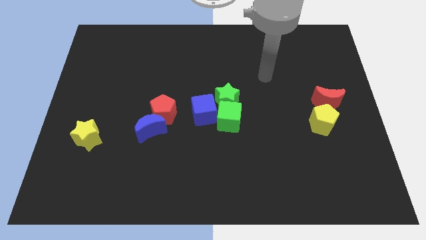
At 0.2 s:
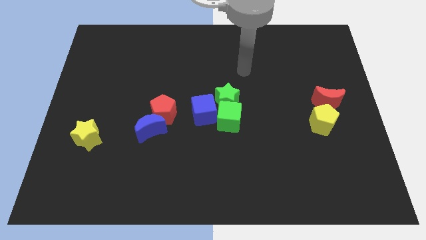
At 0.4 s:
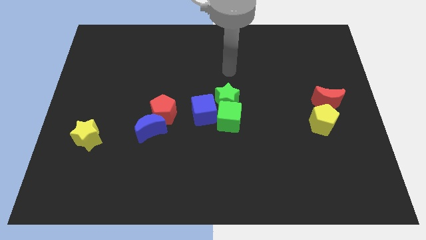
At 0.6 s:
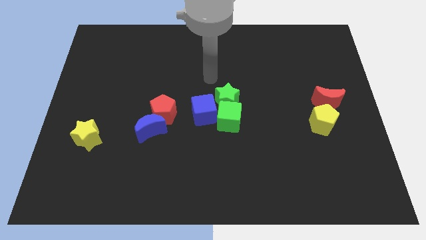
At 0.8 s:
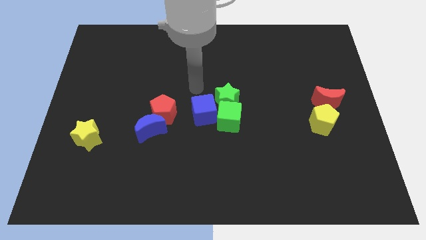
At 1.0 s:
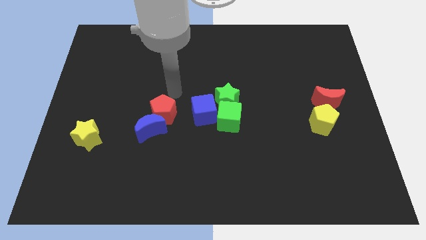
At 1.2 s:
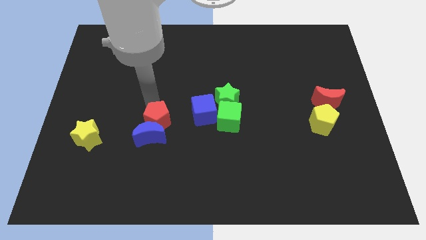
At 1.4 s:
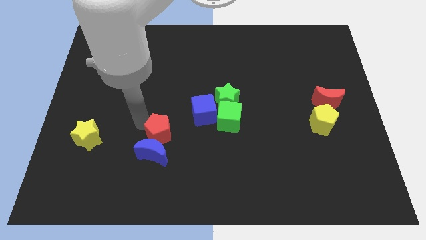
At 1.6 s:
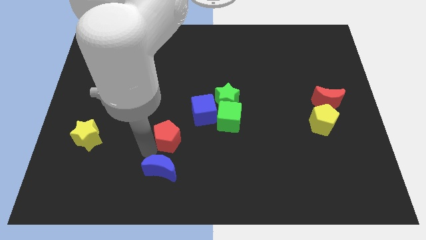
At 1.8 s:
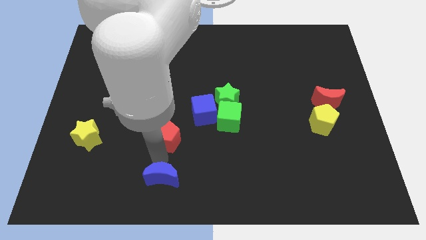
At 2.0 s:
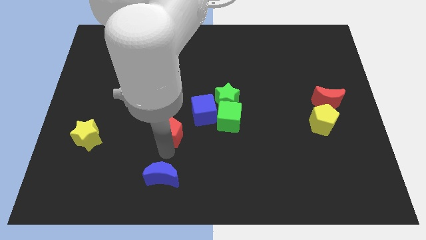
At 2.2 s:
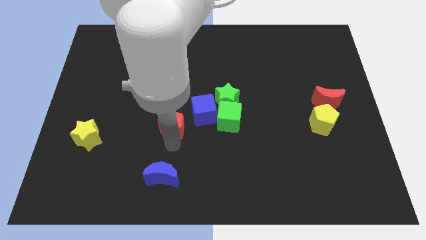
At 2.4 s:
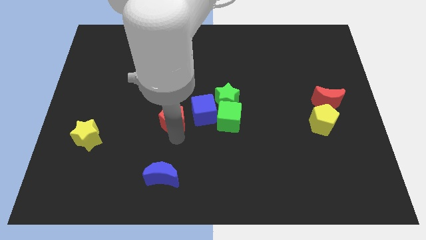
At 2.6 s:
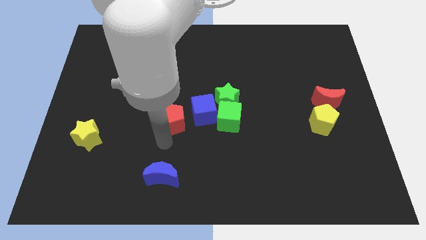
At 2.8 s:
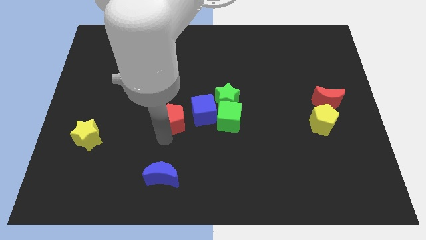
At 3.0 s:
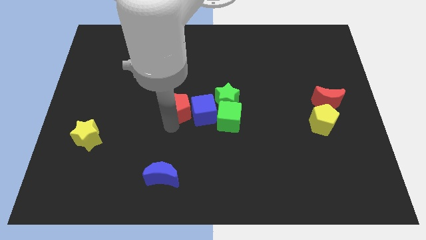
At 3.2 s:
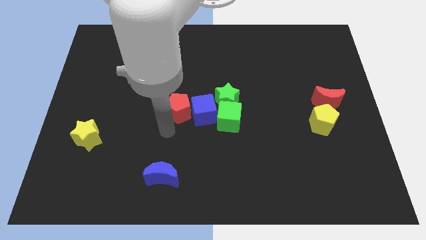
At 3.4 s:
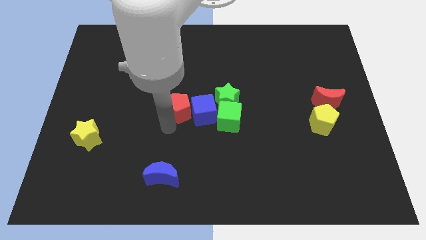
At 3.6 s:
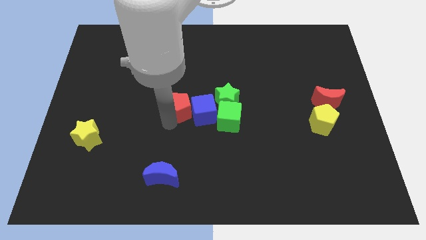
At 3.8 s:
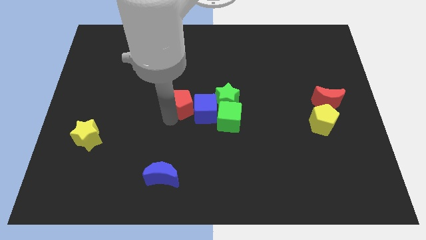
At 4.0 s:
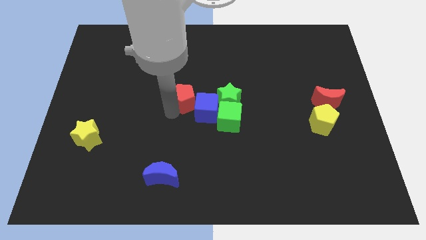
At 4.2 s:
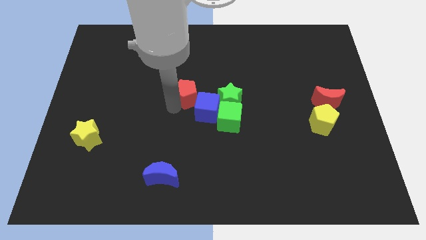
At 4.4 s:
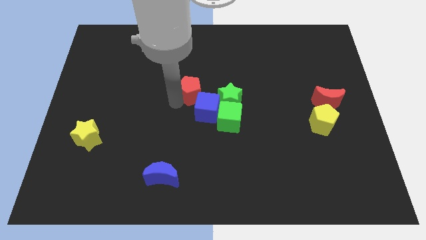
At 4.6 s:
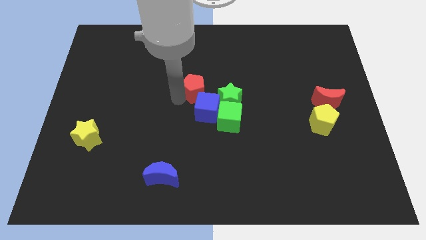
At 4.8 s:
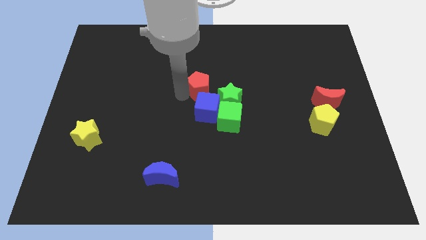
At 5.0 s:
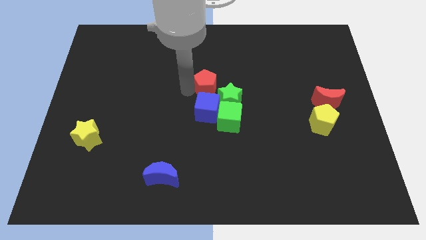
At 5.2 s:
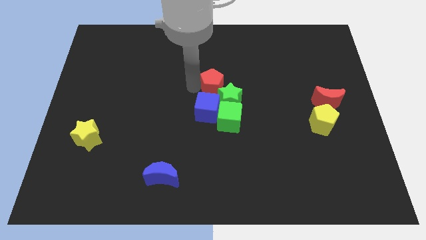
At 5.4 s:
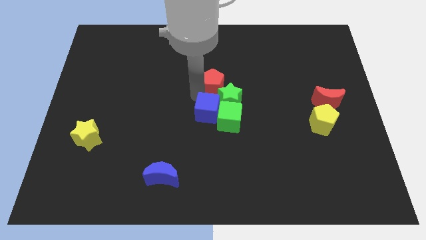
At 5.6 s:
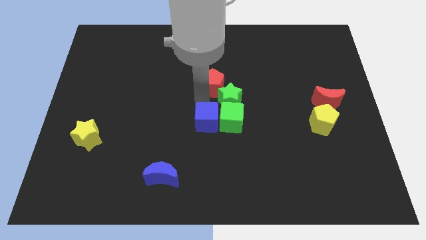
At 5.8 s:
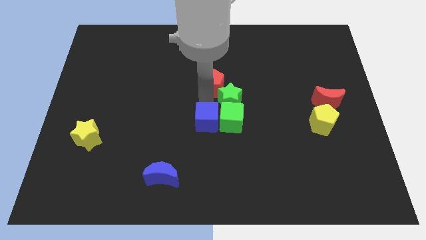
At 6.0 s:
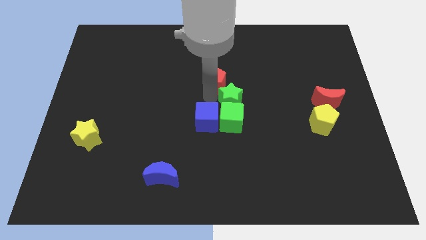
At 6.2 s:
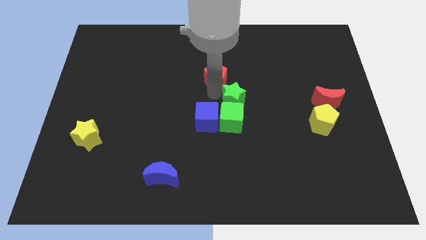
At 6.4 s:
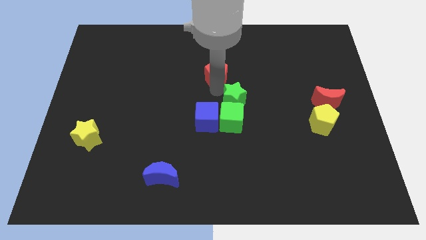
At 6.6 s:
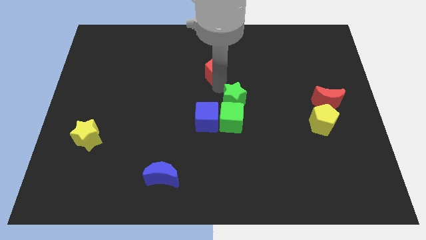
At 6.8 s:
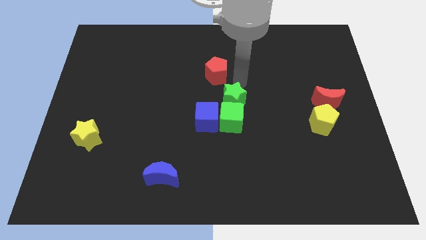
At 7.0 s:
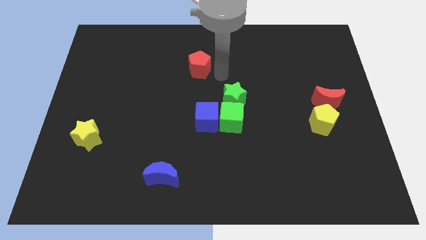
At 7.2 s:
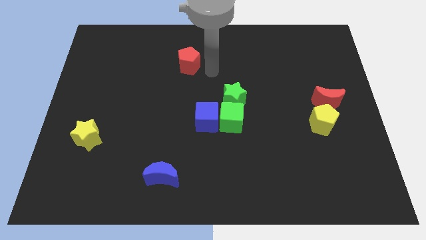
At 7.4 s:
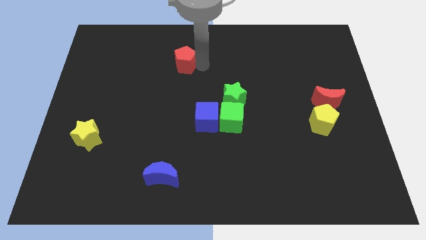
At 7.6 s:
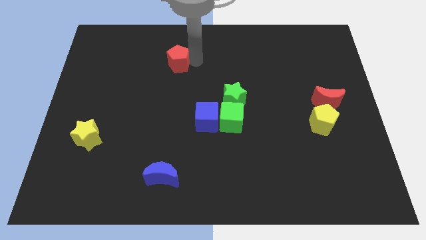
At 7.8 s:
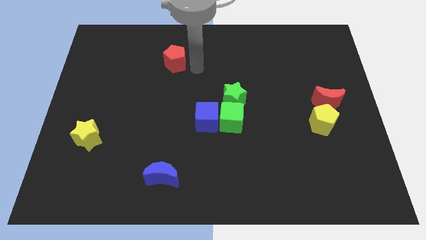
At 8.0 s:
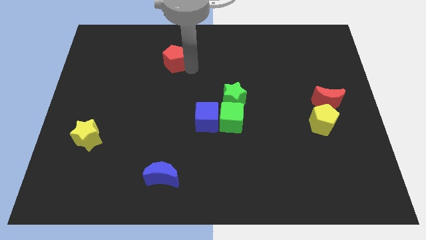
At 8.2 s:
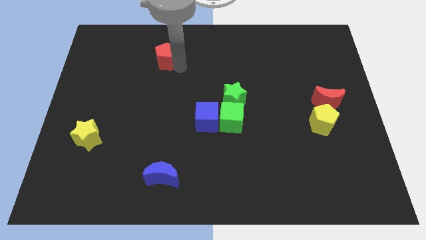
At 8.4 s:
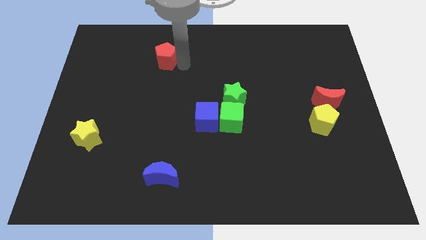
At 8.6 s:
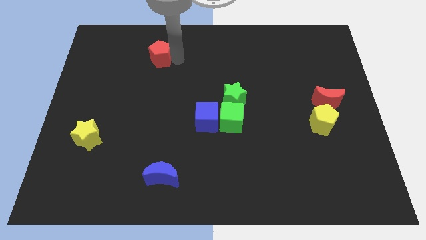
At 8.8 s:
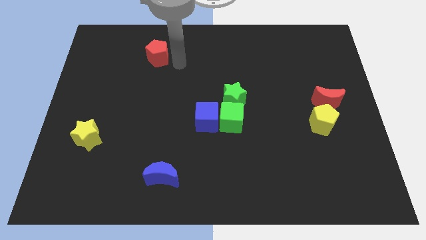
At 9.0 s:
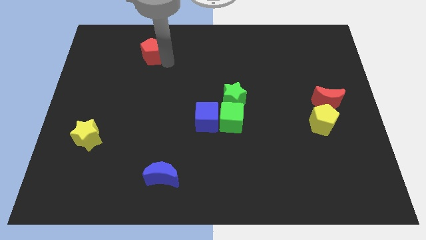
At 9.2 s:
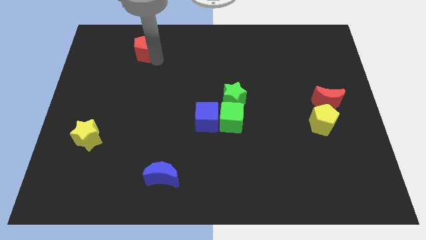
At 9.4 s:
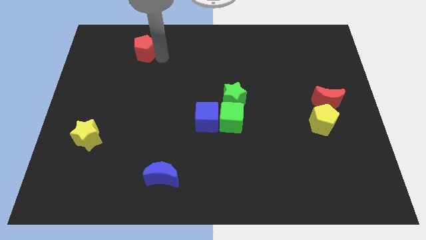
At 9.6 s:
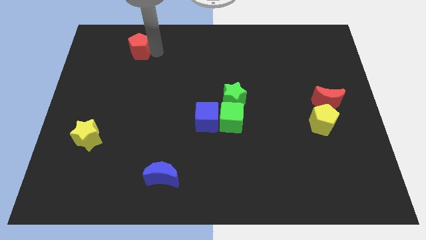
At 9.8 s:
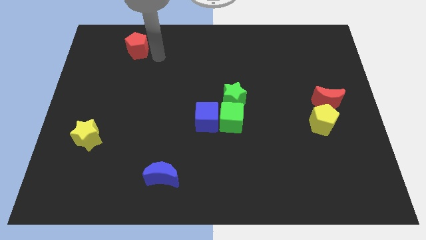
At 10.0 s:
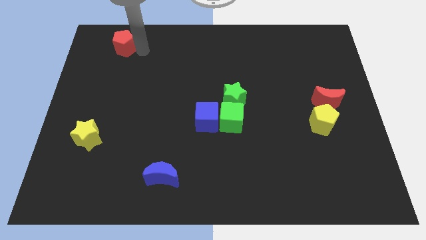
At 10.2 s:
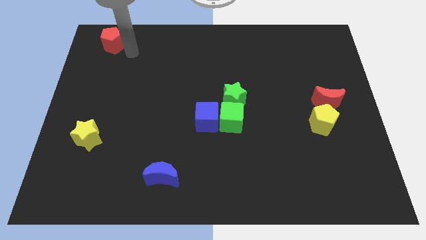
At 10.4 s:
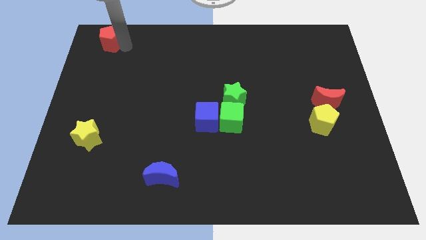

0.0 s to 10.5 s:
move the red pentagon to the top left of the board
